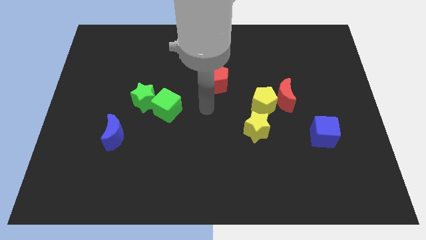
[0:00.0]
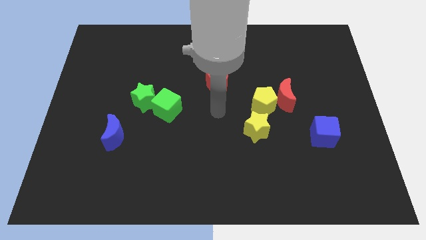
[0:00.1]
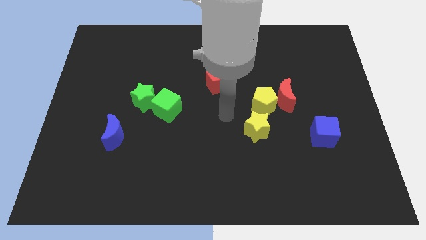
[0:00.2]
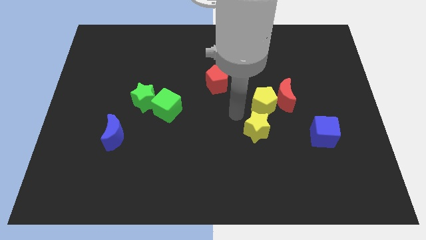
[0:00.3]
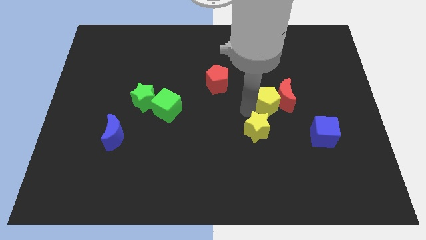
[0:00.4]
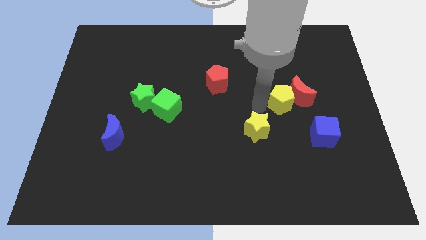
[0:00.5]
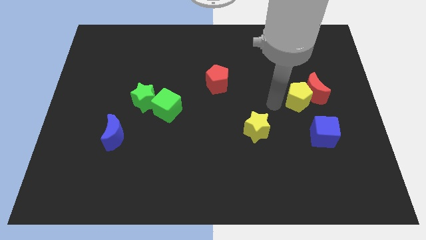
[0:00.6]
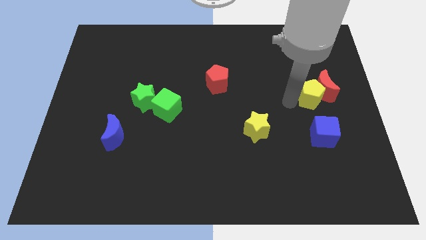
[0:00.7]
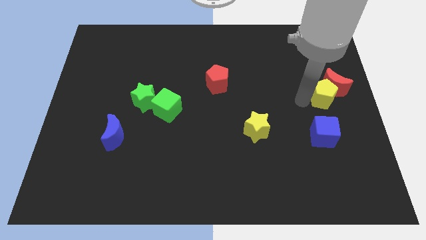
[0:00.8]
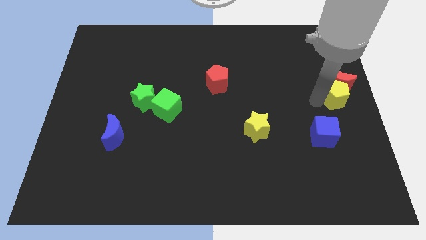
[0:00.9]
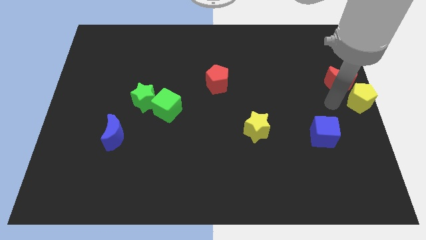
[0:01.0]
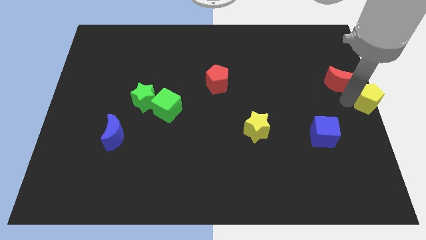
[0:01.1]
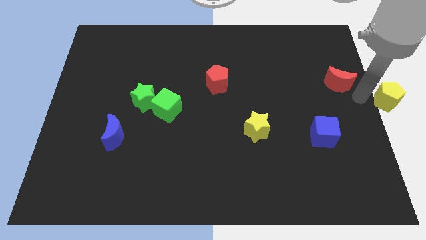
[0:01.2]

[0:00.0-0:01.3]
move the red moon away from the yellow pentagon

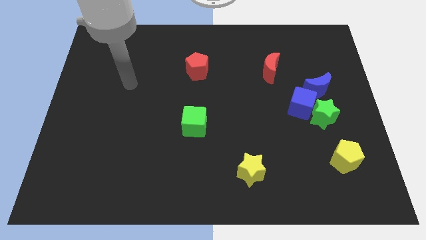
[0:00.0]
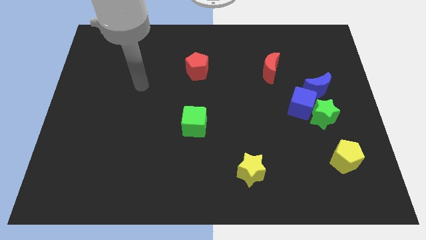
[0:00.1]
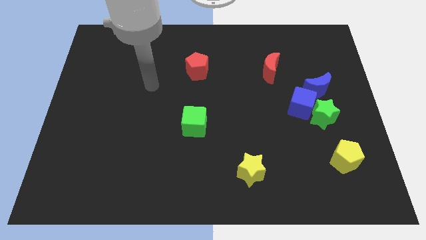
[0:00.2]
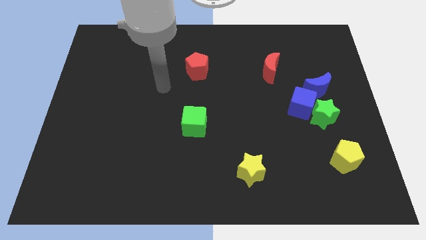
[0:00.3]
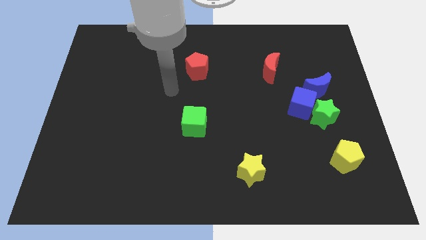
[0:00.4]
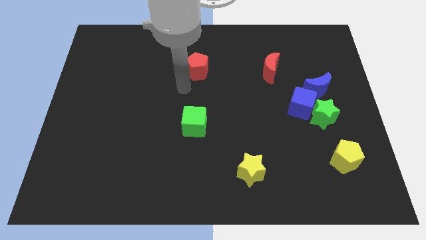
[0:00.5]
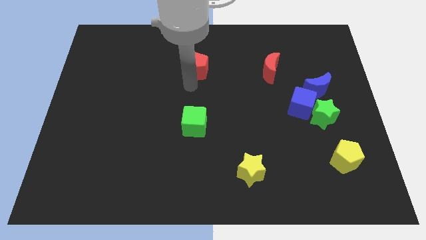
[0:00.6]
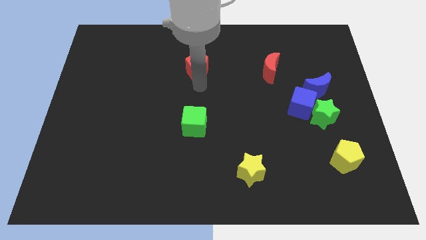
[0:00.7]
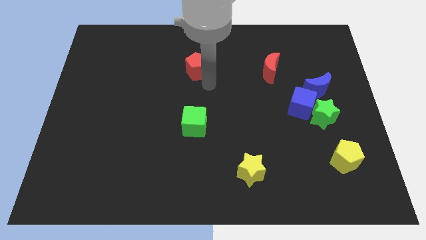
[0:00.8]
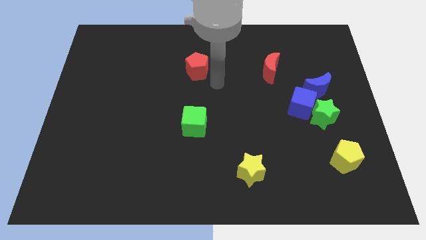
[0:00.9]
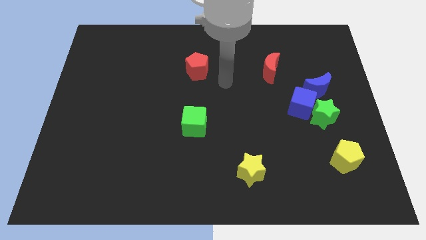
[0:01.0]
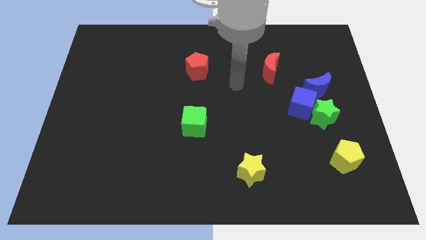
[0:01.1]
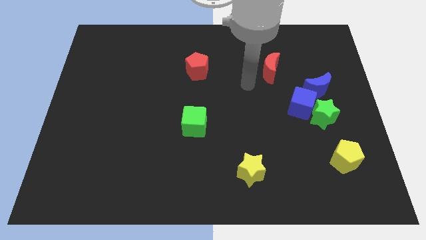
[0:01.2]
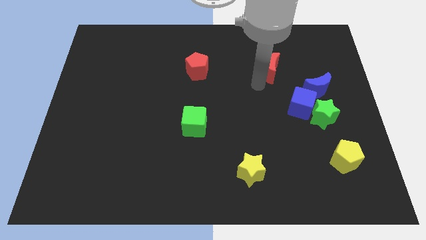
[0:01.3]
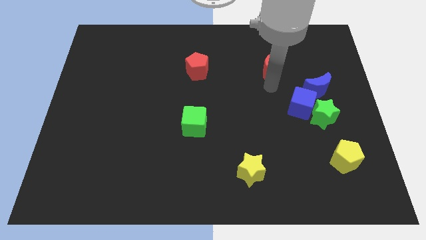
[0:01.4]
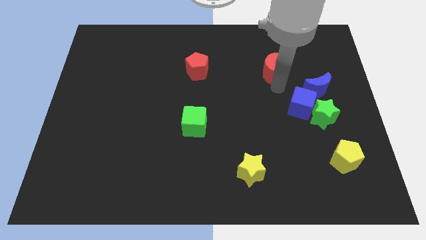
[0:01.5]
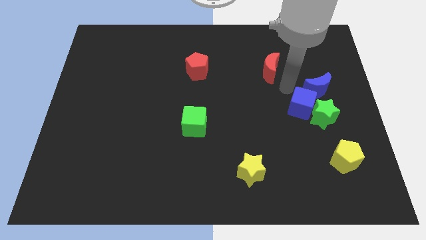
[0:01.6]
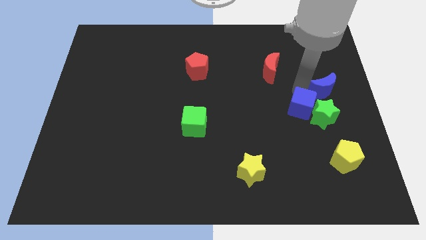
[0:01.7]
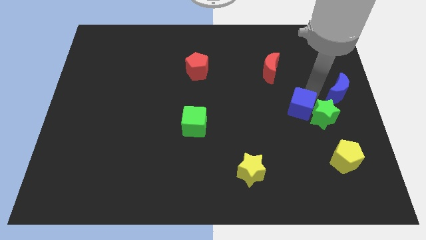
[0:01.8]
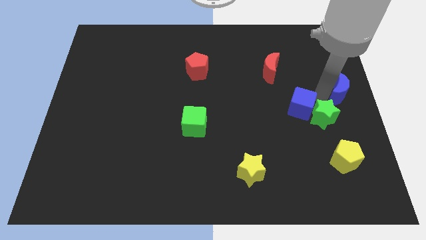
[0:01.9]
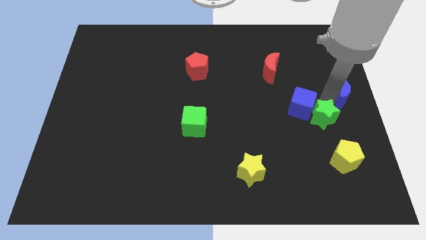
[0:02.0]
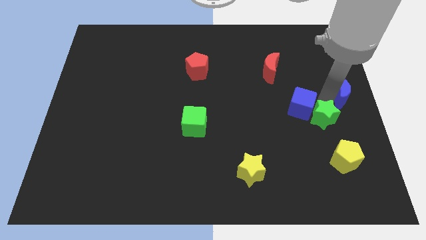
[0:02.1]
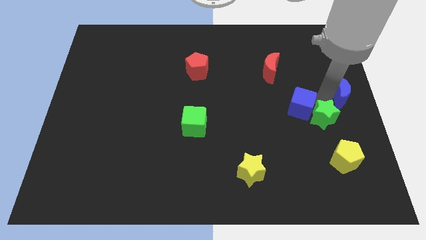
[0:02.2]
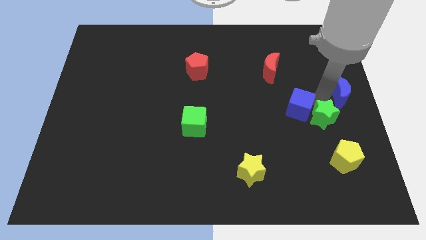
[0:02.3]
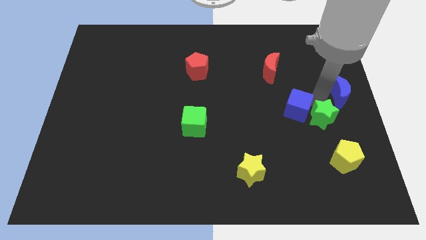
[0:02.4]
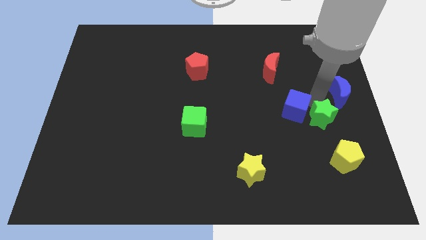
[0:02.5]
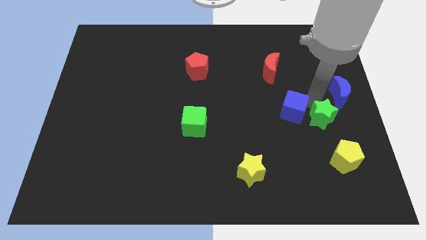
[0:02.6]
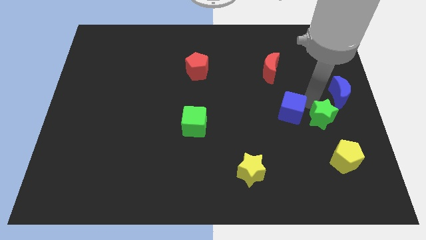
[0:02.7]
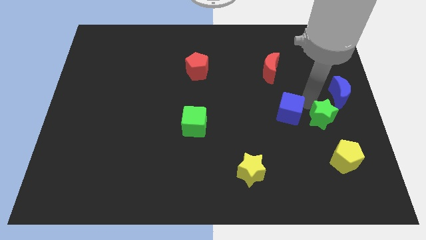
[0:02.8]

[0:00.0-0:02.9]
move the blue cube away from the green star and blue moon

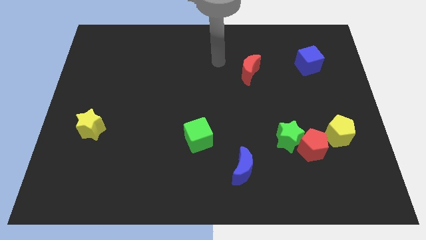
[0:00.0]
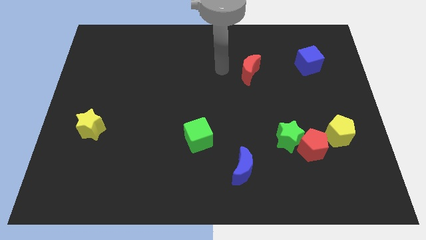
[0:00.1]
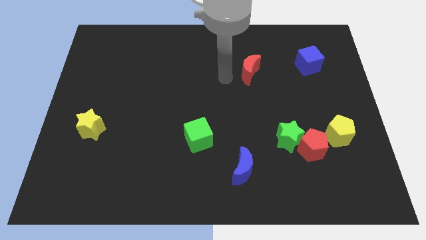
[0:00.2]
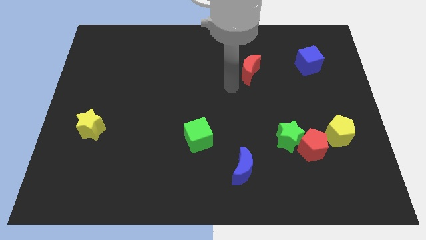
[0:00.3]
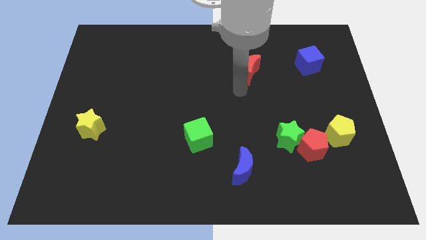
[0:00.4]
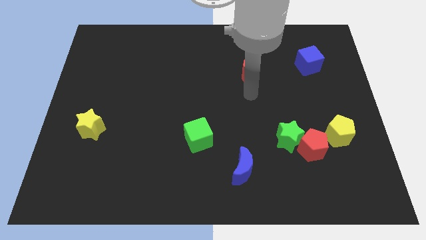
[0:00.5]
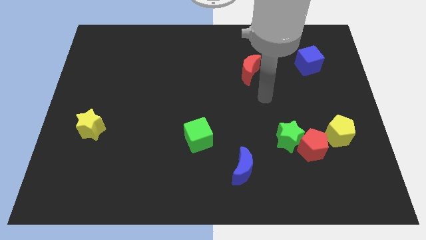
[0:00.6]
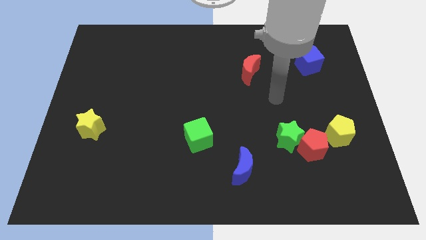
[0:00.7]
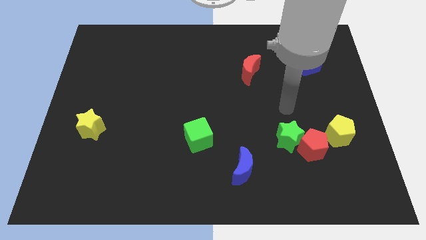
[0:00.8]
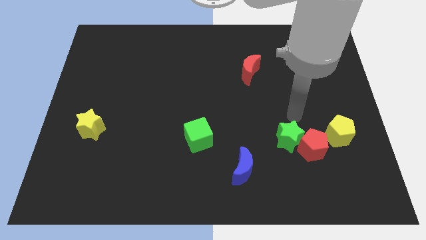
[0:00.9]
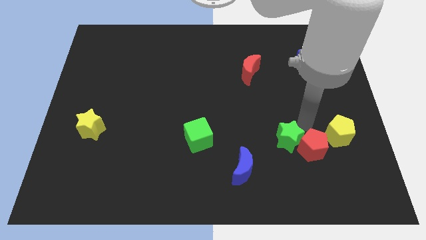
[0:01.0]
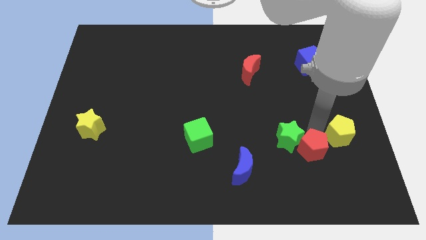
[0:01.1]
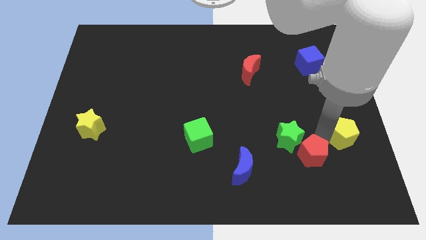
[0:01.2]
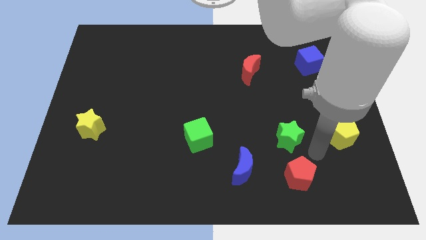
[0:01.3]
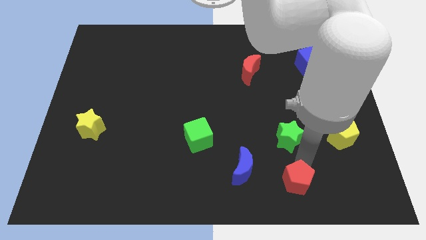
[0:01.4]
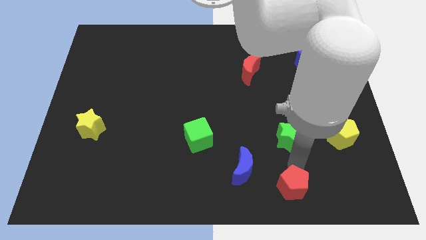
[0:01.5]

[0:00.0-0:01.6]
pull the green star apart from the red pentagon

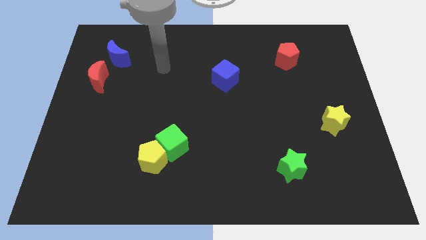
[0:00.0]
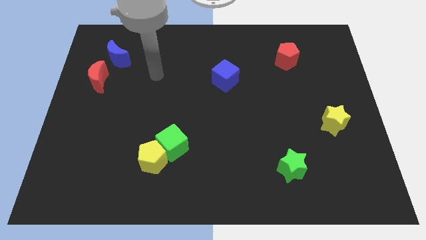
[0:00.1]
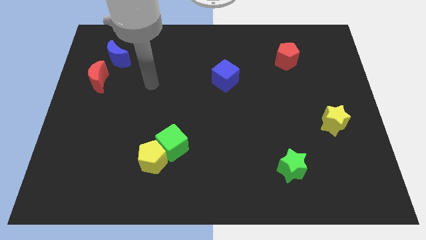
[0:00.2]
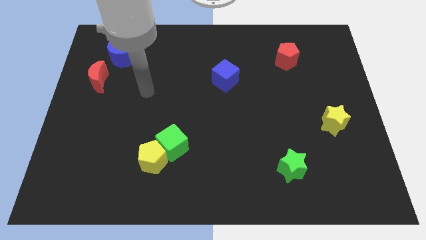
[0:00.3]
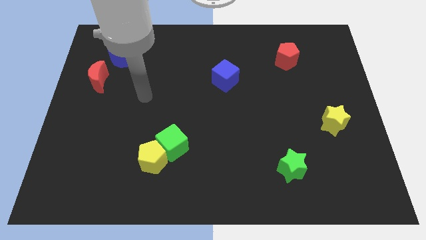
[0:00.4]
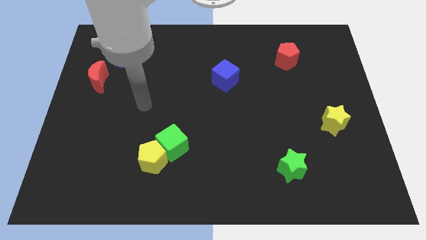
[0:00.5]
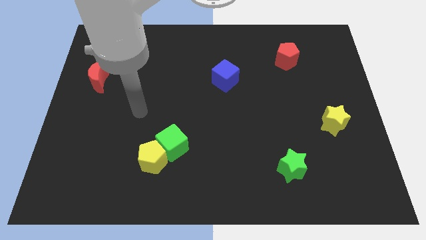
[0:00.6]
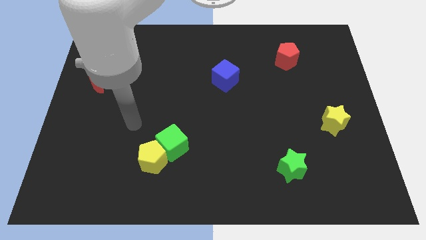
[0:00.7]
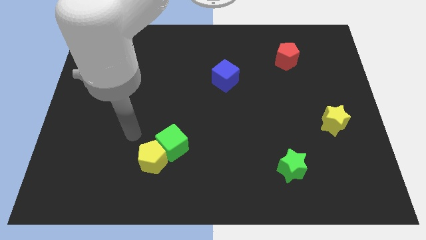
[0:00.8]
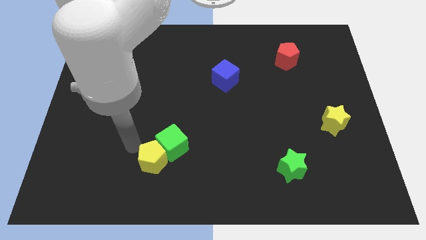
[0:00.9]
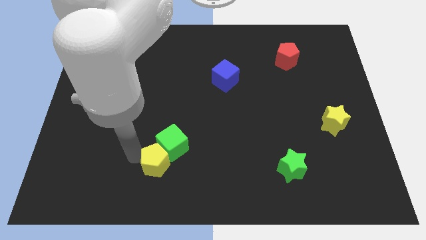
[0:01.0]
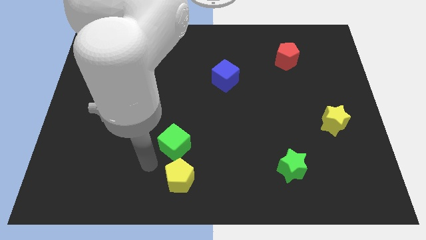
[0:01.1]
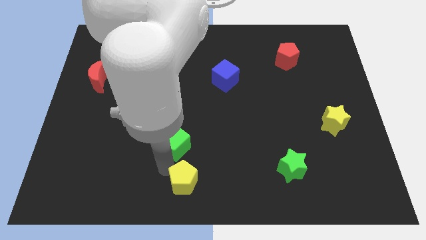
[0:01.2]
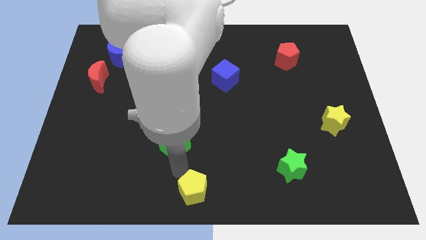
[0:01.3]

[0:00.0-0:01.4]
separate the green cube from the yellow pentagon

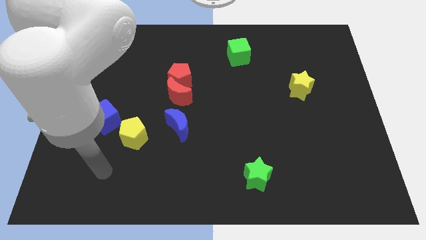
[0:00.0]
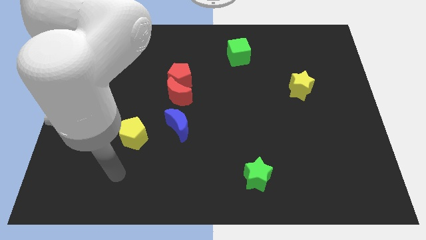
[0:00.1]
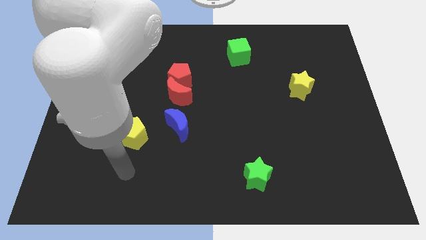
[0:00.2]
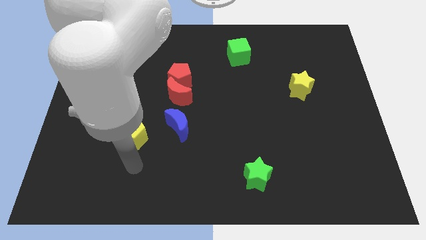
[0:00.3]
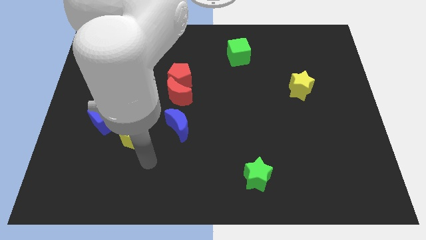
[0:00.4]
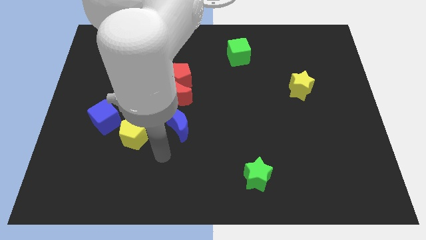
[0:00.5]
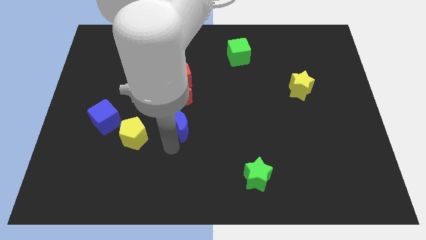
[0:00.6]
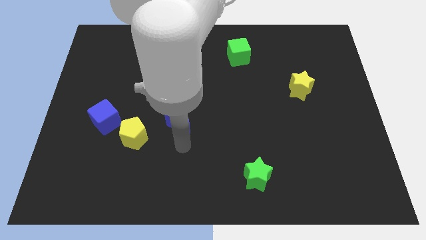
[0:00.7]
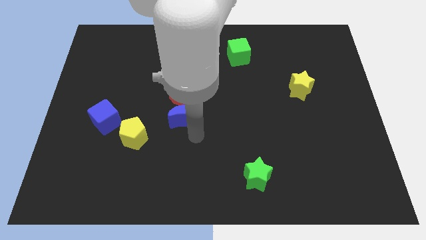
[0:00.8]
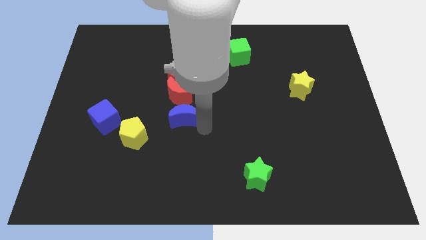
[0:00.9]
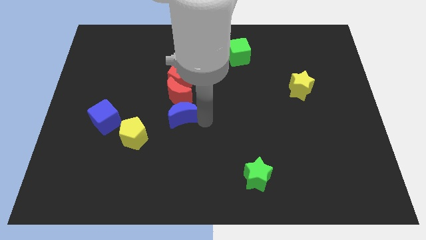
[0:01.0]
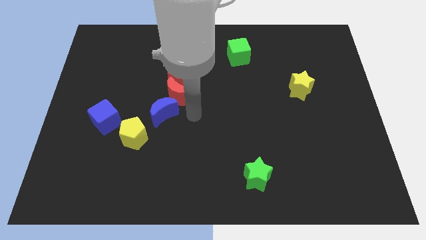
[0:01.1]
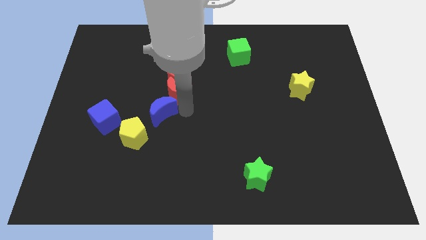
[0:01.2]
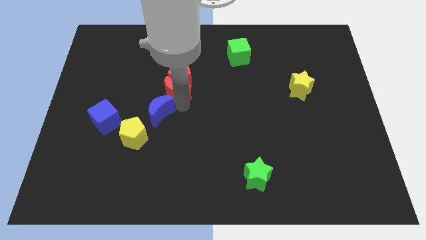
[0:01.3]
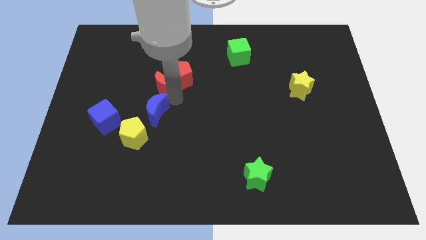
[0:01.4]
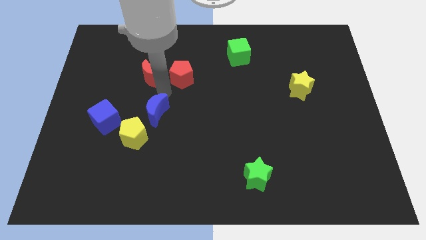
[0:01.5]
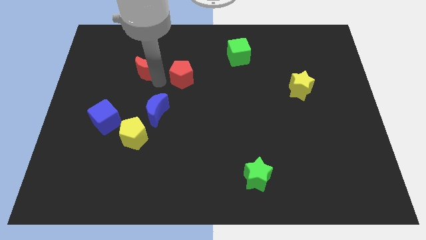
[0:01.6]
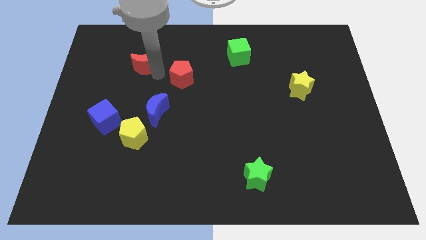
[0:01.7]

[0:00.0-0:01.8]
pull the red pentagon apart from the red moon

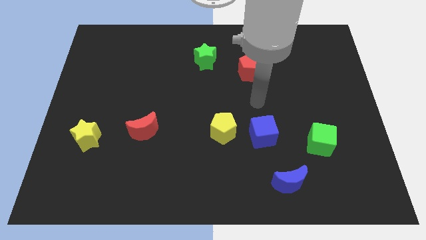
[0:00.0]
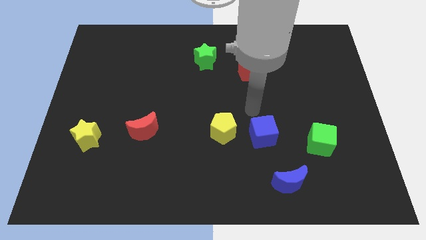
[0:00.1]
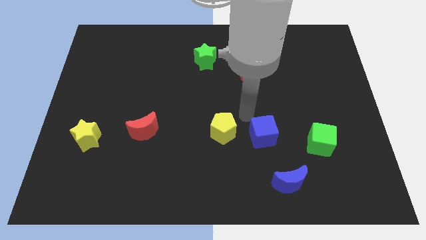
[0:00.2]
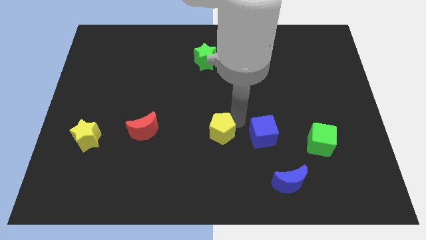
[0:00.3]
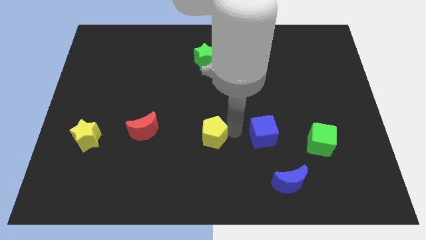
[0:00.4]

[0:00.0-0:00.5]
pull the blue cube apart from the yellow pentagon
